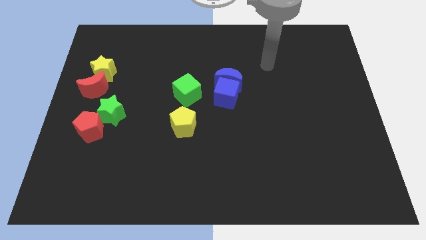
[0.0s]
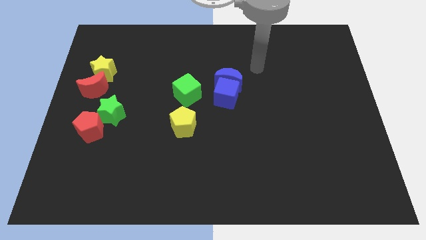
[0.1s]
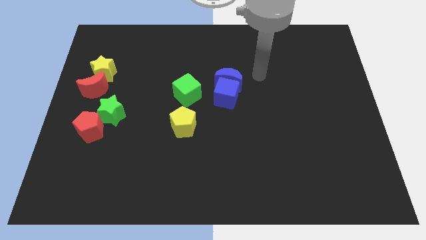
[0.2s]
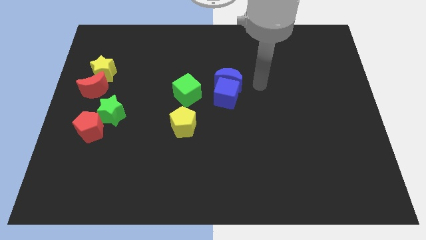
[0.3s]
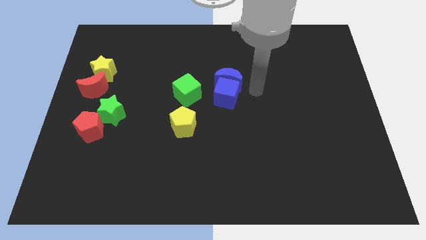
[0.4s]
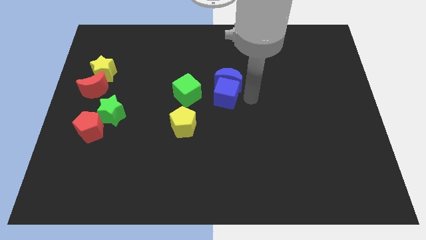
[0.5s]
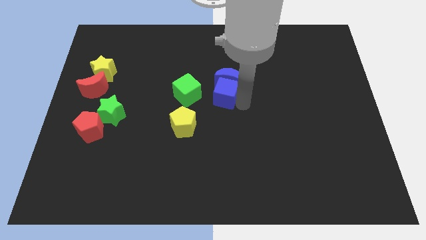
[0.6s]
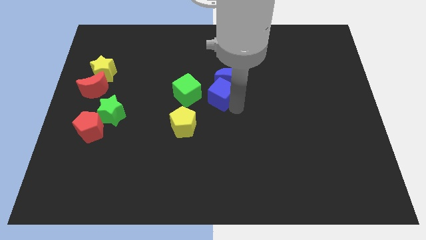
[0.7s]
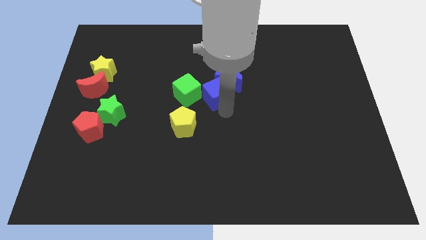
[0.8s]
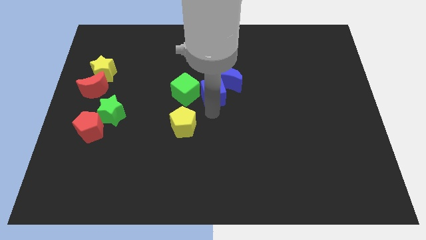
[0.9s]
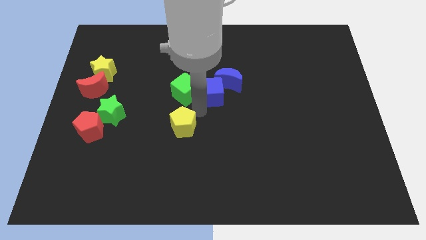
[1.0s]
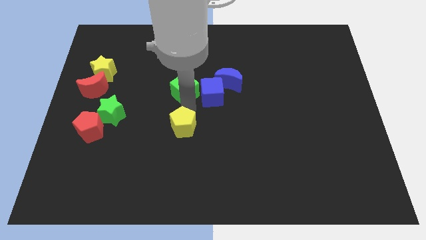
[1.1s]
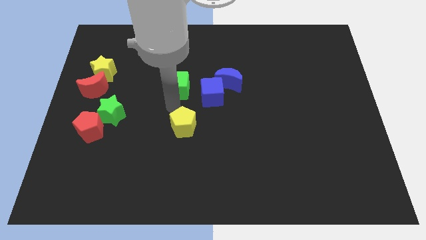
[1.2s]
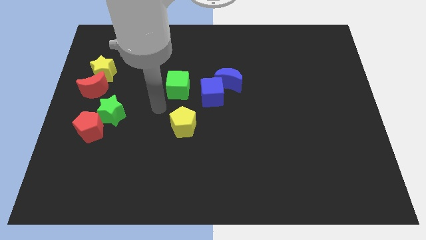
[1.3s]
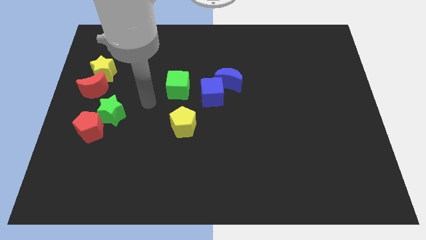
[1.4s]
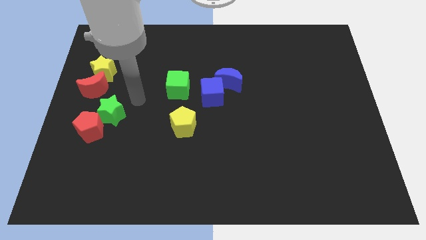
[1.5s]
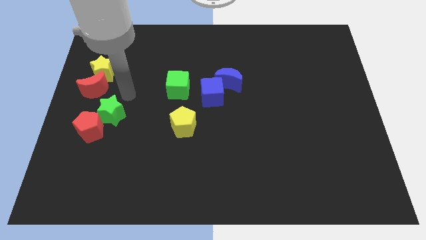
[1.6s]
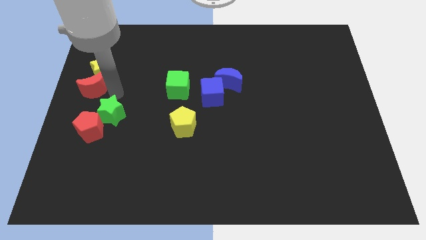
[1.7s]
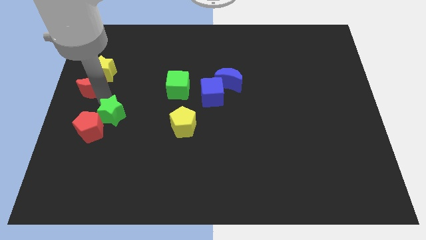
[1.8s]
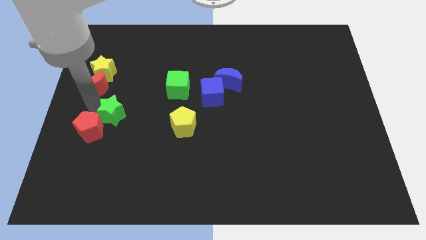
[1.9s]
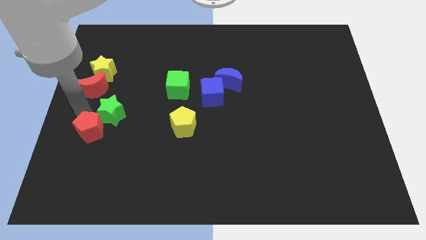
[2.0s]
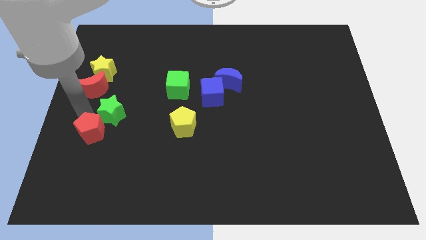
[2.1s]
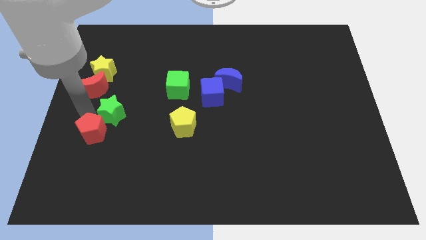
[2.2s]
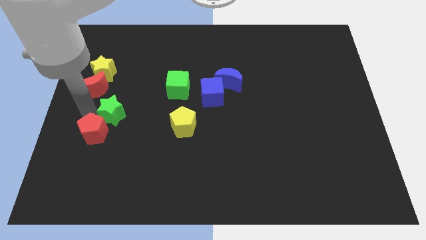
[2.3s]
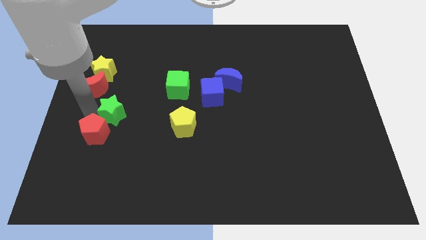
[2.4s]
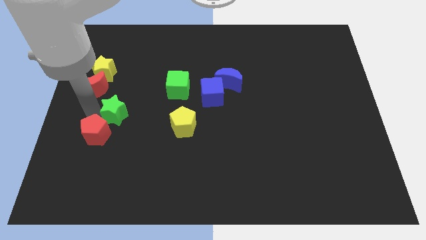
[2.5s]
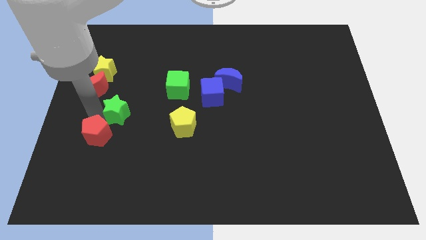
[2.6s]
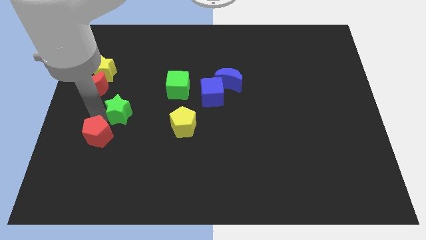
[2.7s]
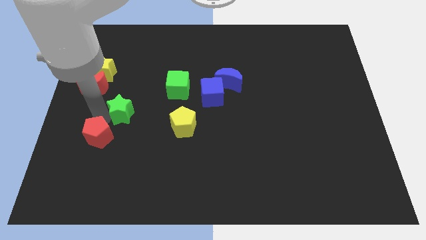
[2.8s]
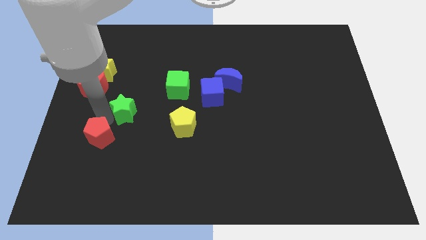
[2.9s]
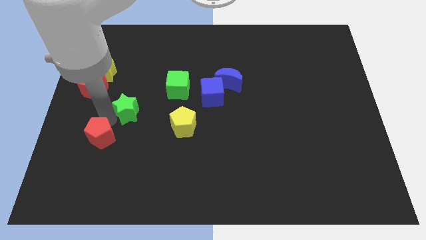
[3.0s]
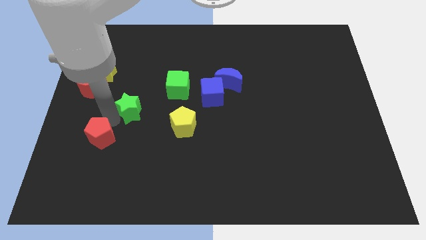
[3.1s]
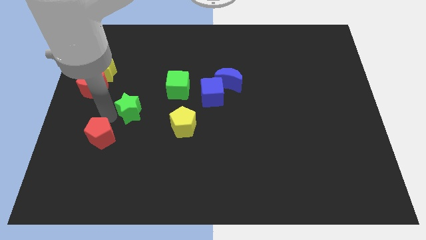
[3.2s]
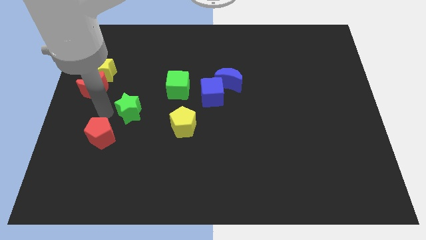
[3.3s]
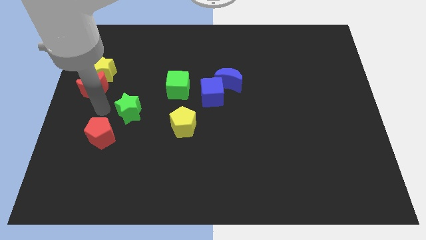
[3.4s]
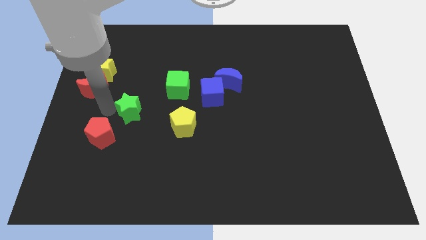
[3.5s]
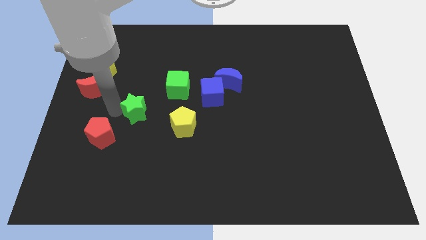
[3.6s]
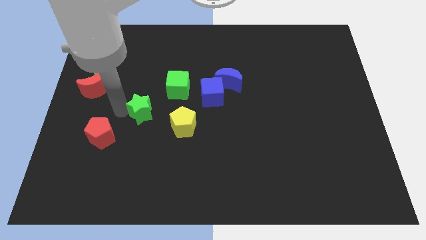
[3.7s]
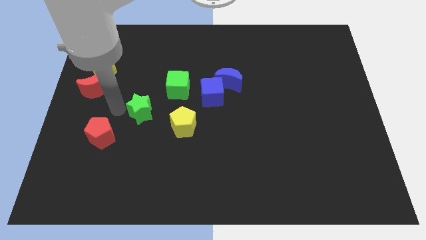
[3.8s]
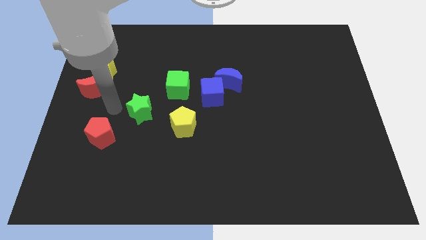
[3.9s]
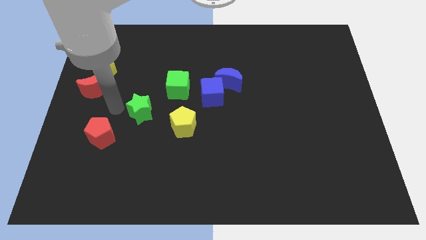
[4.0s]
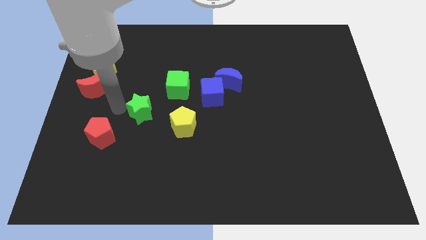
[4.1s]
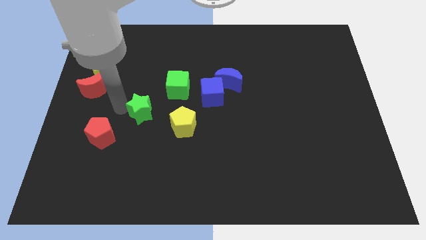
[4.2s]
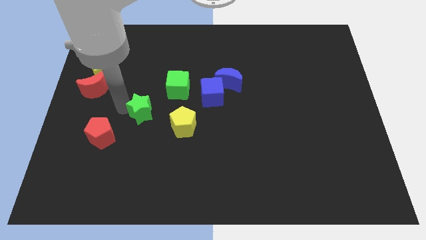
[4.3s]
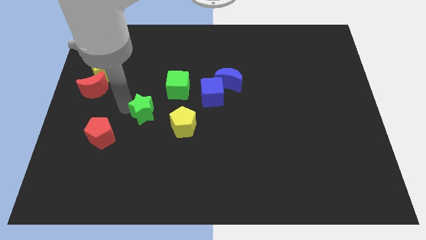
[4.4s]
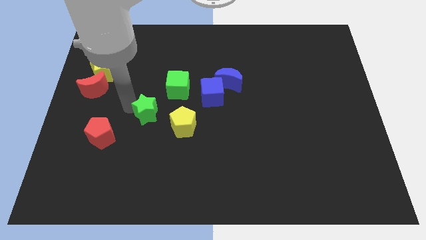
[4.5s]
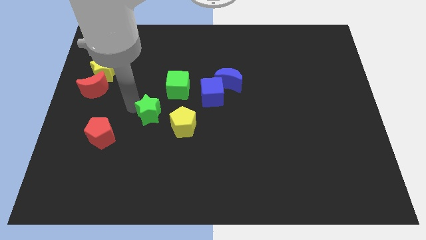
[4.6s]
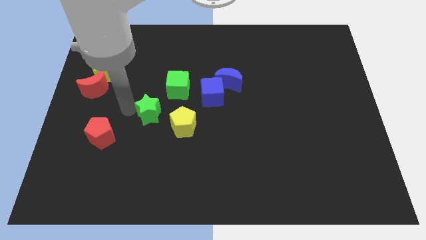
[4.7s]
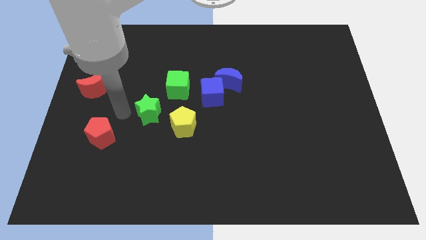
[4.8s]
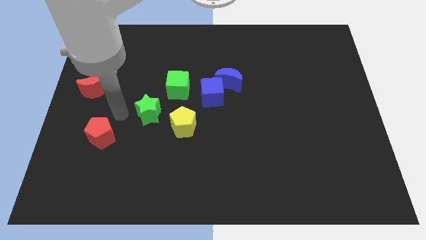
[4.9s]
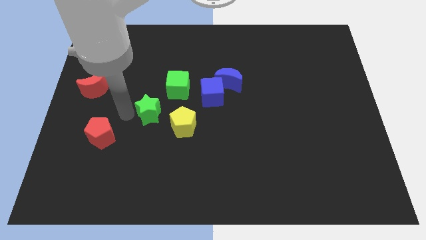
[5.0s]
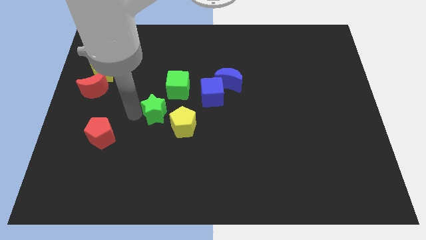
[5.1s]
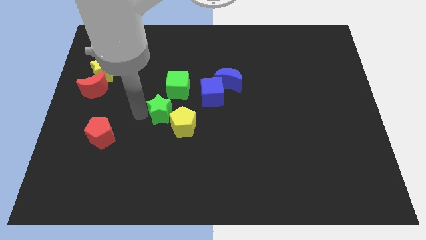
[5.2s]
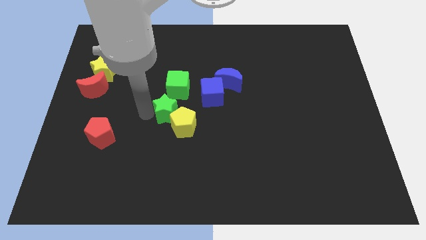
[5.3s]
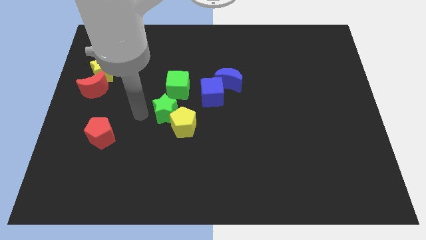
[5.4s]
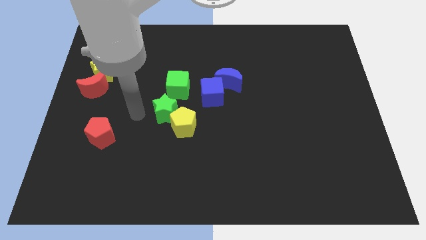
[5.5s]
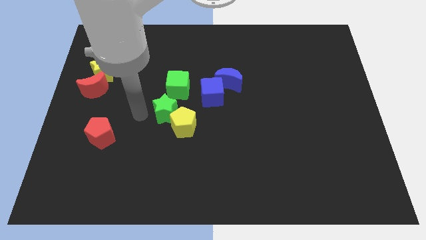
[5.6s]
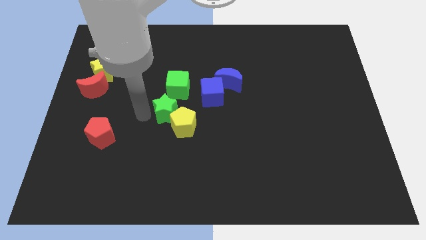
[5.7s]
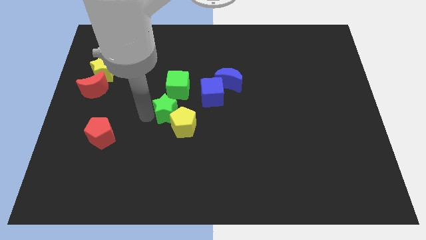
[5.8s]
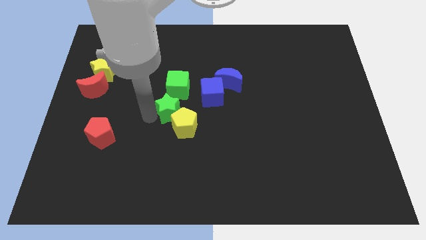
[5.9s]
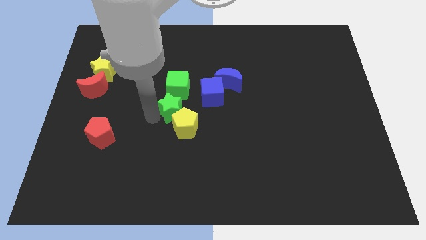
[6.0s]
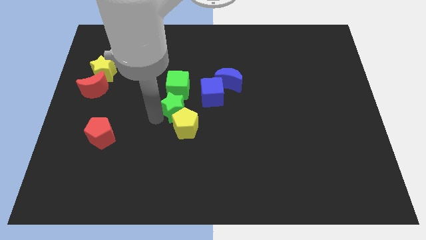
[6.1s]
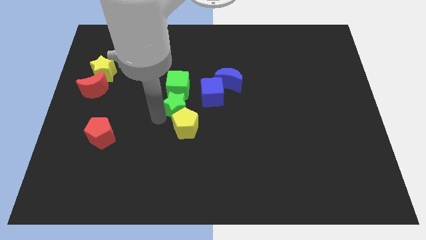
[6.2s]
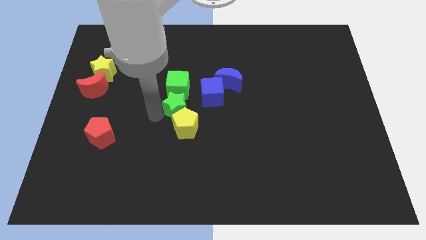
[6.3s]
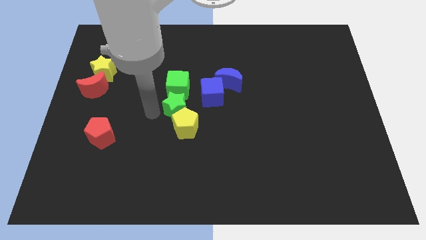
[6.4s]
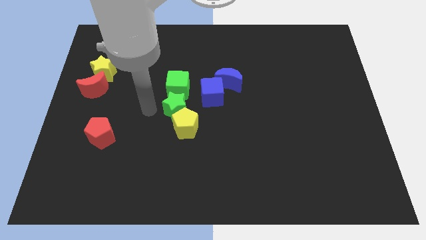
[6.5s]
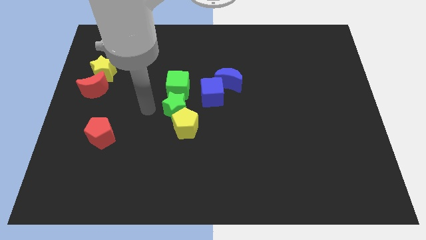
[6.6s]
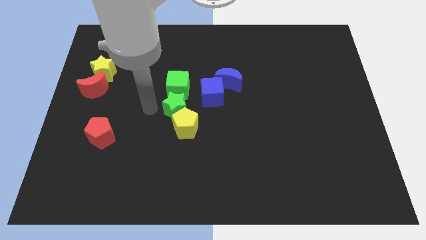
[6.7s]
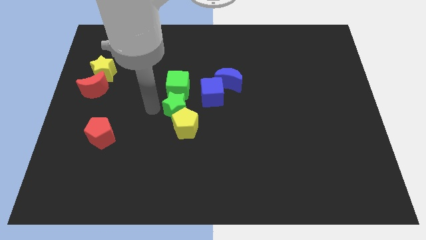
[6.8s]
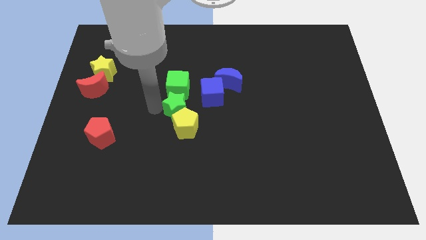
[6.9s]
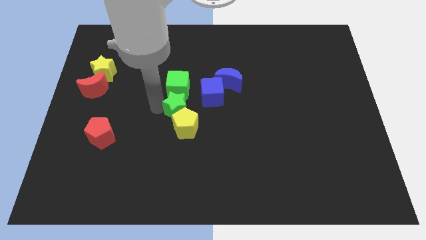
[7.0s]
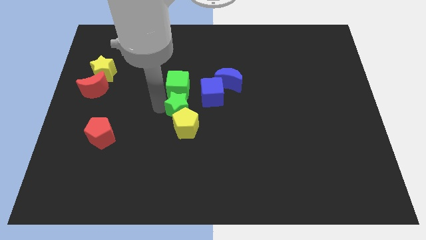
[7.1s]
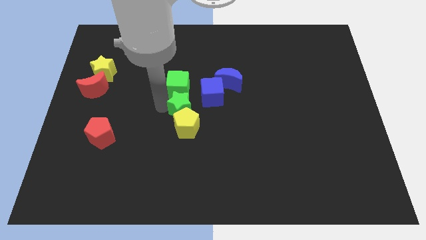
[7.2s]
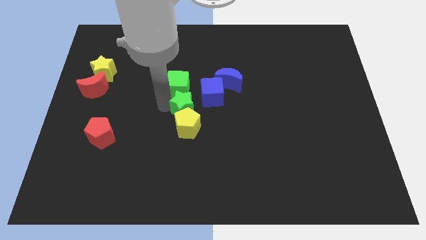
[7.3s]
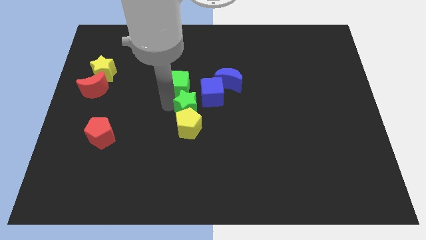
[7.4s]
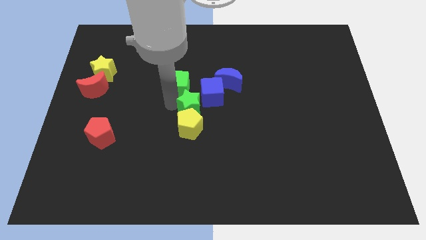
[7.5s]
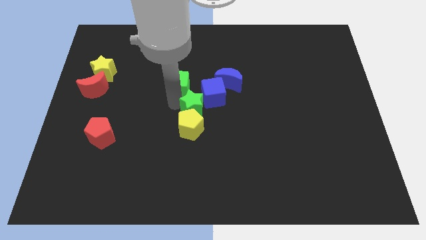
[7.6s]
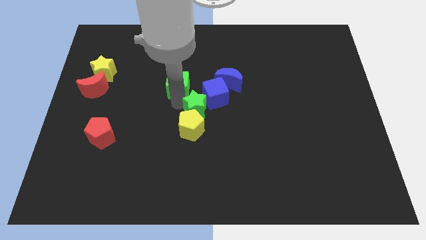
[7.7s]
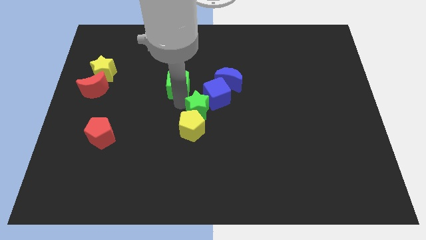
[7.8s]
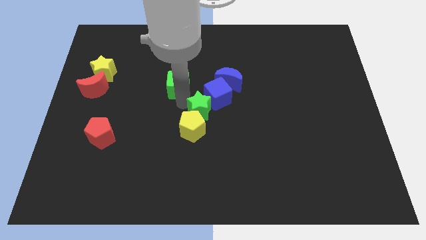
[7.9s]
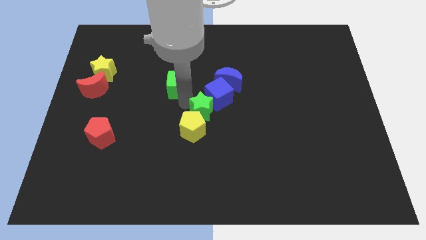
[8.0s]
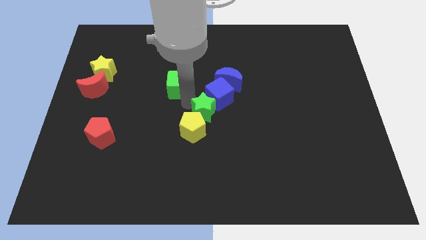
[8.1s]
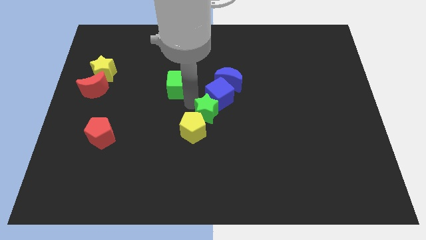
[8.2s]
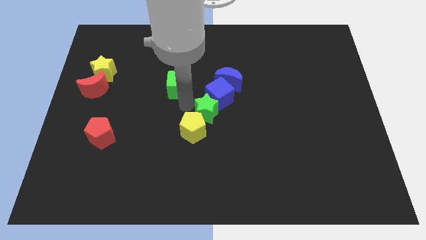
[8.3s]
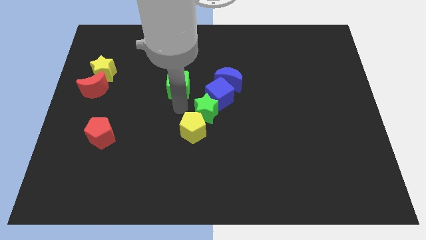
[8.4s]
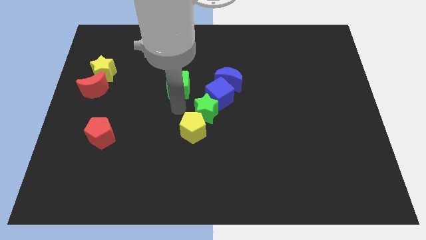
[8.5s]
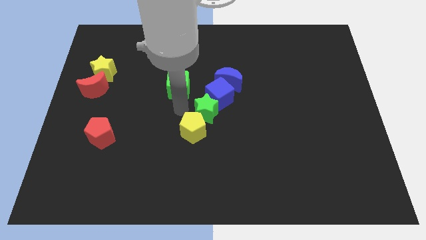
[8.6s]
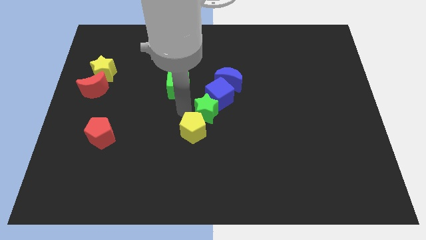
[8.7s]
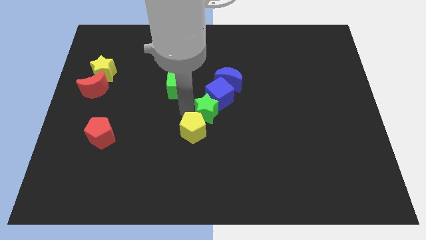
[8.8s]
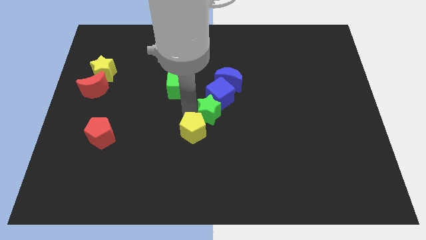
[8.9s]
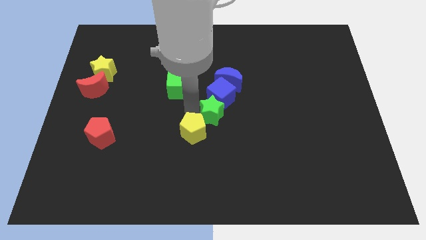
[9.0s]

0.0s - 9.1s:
put the green star to the bottom of the blue moon
